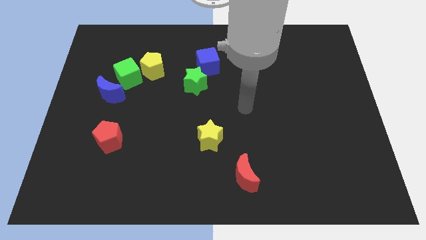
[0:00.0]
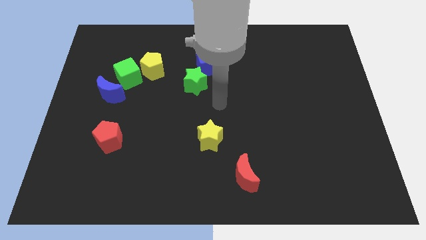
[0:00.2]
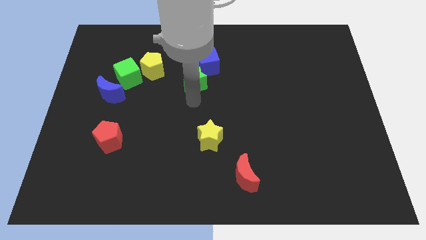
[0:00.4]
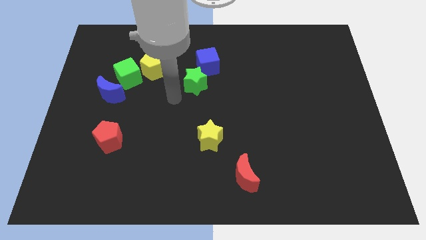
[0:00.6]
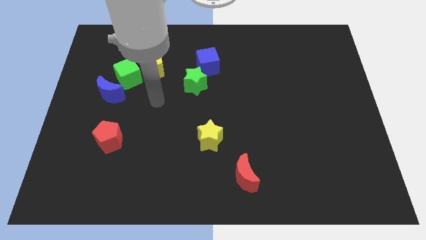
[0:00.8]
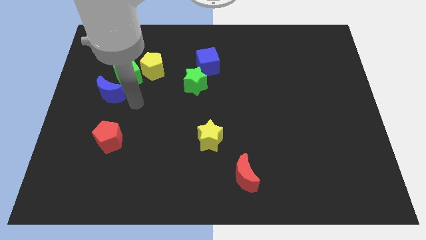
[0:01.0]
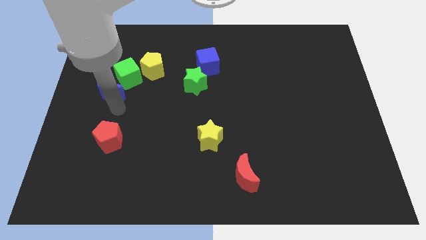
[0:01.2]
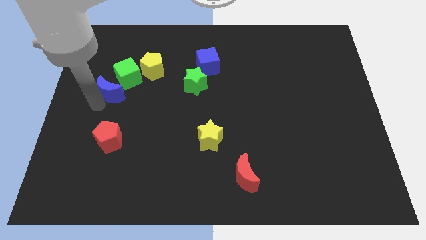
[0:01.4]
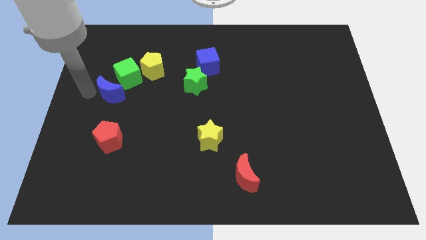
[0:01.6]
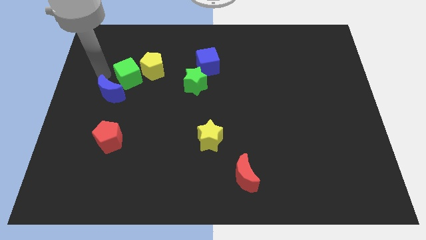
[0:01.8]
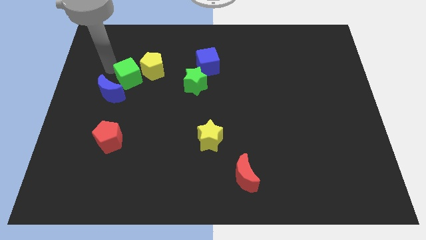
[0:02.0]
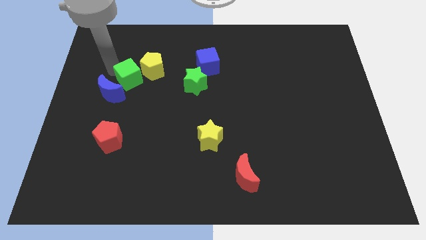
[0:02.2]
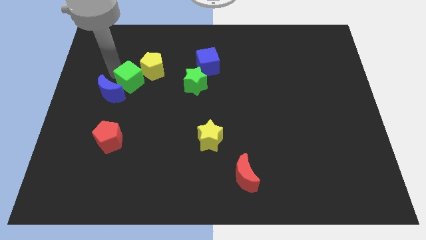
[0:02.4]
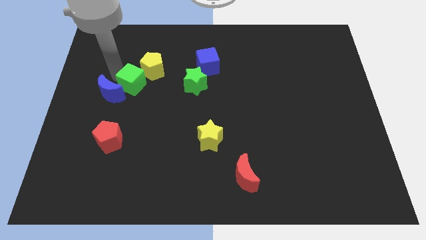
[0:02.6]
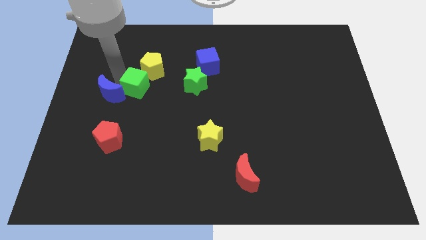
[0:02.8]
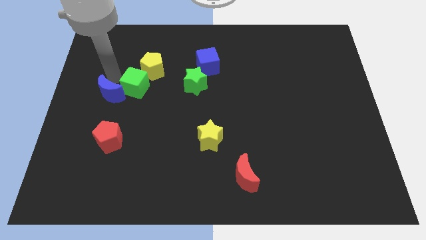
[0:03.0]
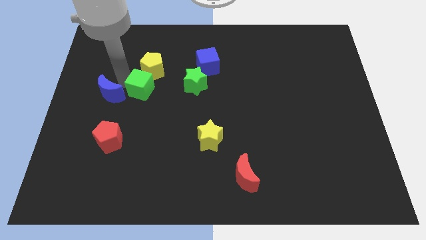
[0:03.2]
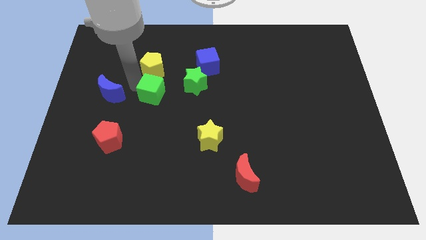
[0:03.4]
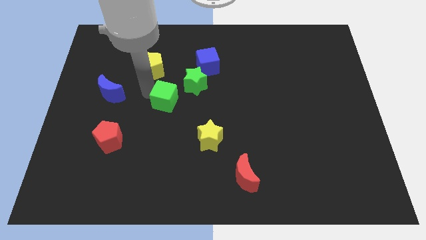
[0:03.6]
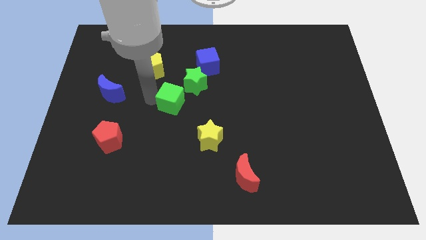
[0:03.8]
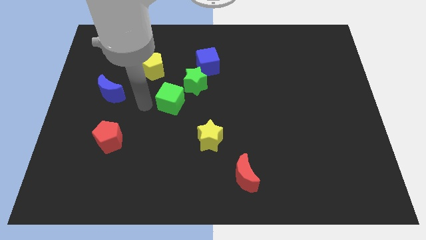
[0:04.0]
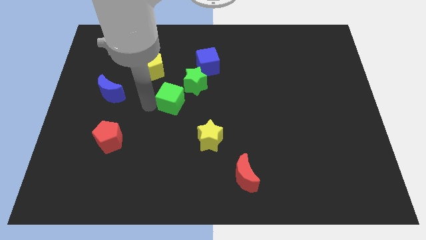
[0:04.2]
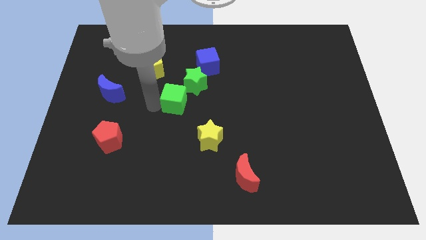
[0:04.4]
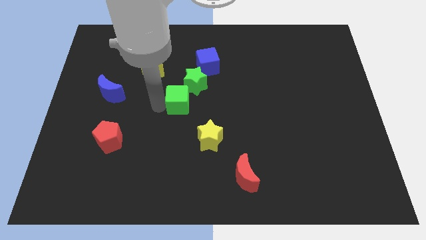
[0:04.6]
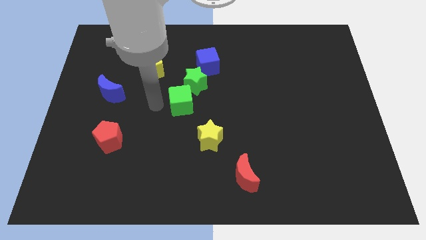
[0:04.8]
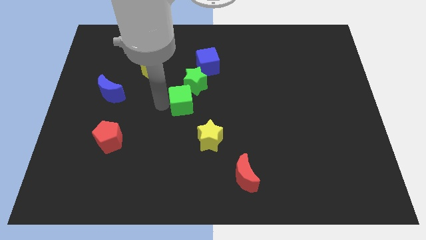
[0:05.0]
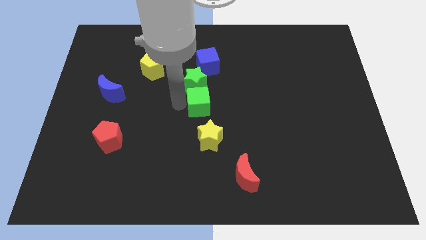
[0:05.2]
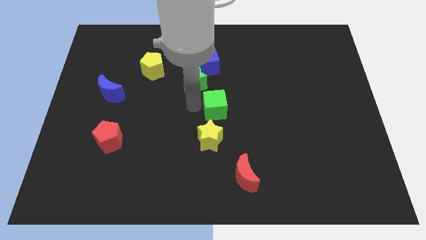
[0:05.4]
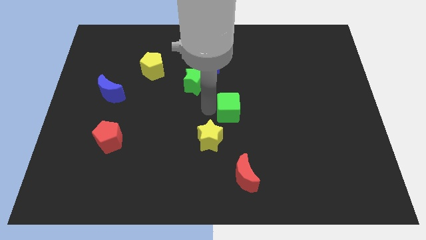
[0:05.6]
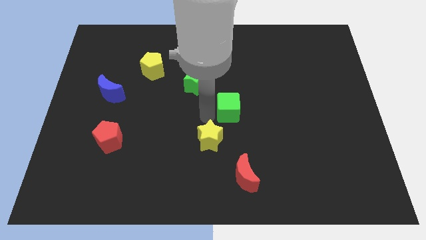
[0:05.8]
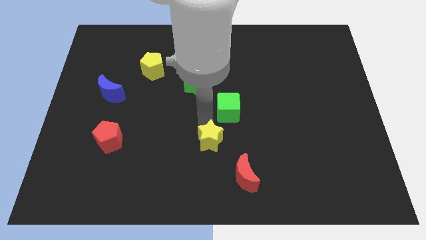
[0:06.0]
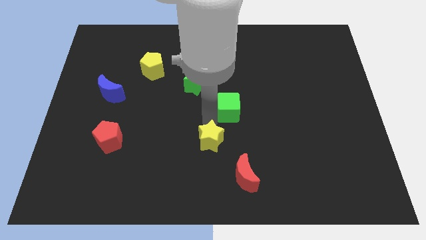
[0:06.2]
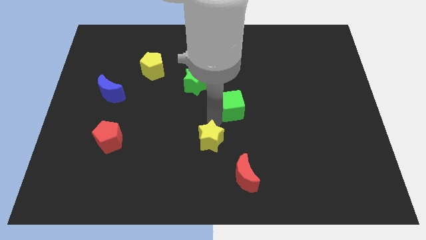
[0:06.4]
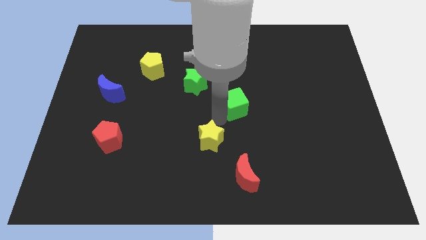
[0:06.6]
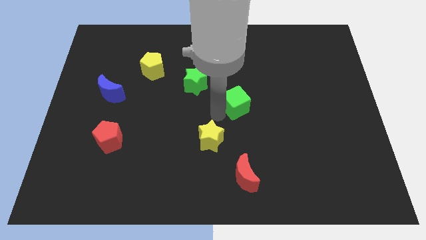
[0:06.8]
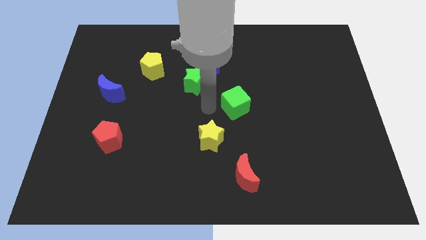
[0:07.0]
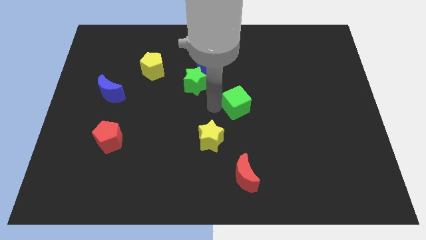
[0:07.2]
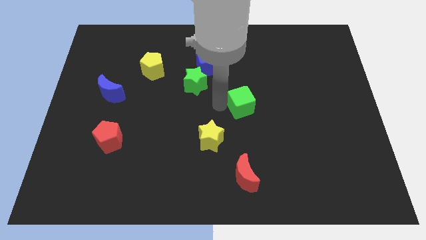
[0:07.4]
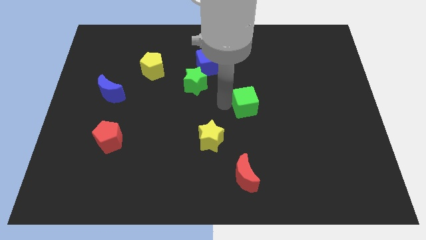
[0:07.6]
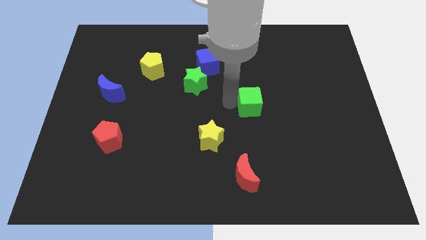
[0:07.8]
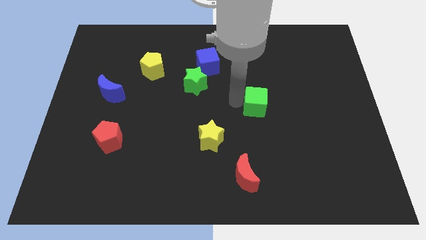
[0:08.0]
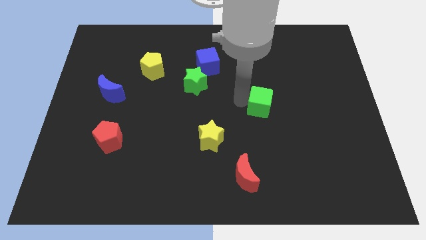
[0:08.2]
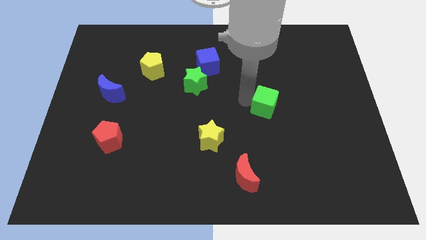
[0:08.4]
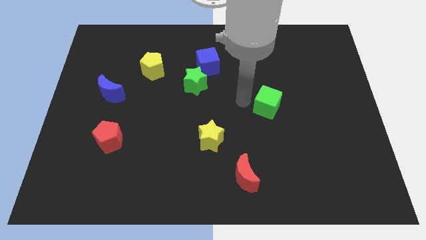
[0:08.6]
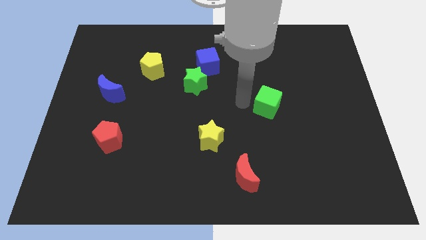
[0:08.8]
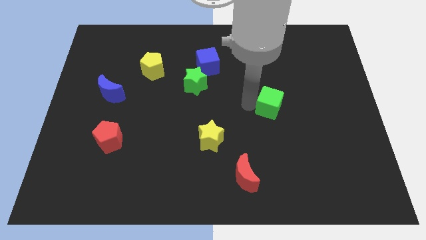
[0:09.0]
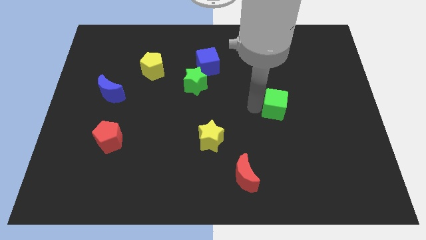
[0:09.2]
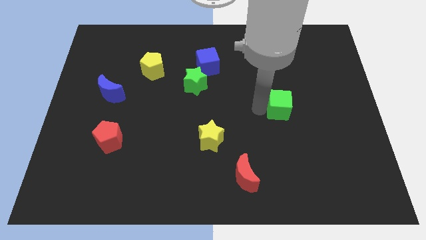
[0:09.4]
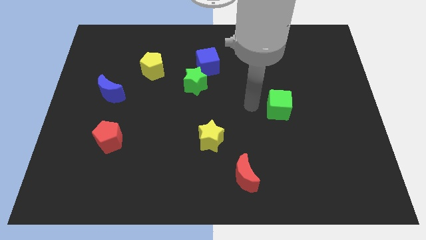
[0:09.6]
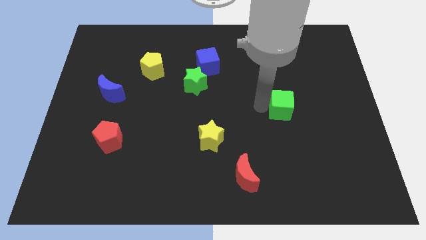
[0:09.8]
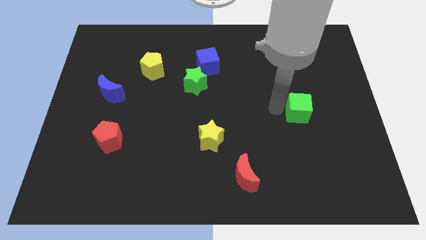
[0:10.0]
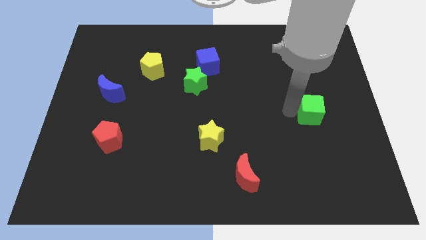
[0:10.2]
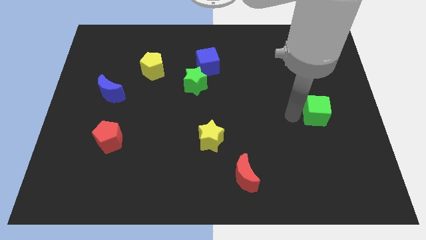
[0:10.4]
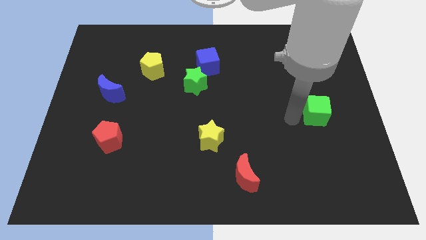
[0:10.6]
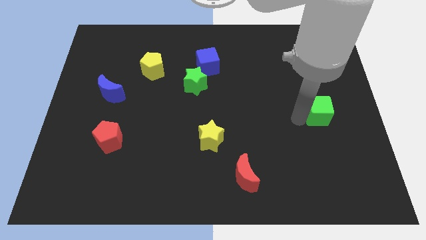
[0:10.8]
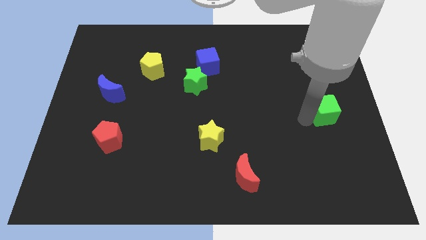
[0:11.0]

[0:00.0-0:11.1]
put the green cube to the right side of the board
